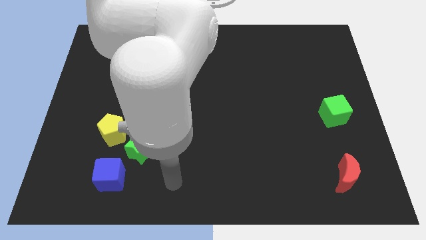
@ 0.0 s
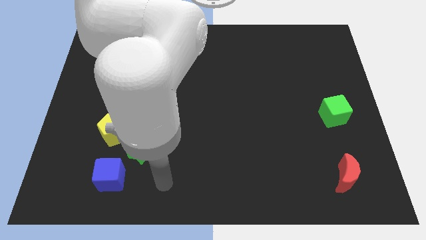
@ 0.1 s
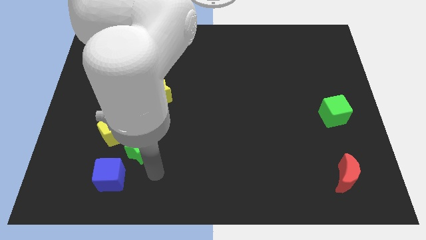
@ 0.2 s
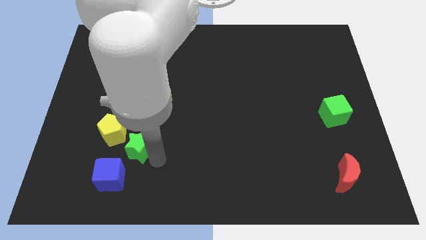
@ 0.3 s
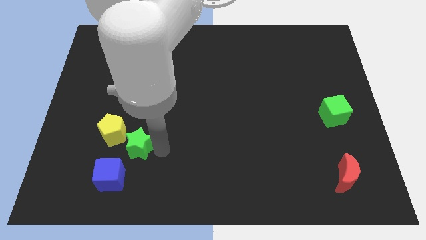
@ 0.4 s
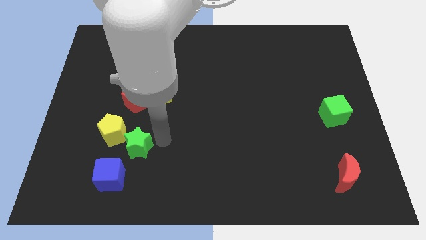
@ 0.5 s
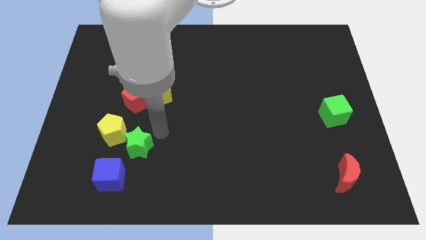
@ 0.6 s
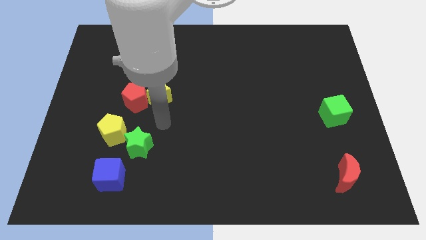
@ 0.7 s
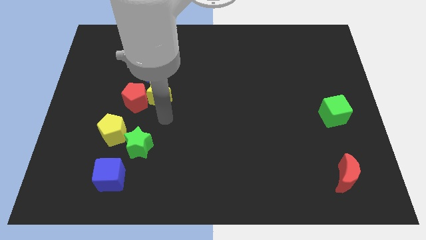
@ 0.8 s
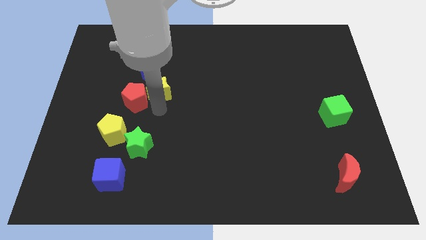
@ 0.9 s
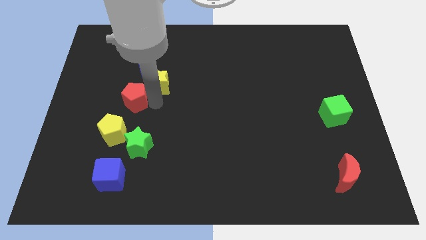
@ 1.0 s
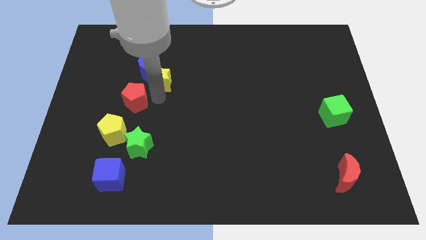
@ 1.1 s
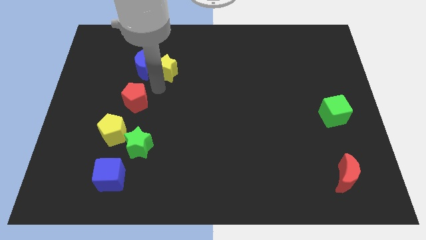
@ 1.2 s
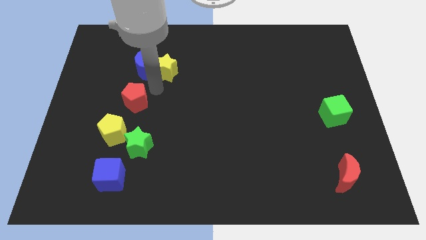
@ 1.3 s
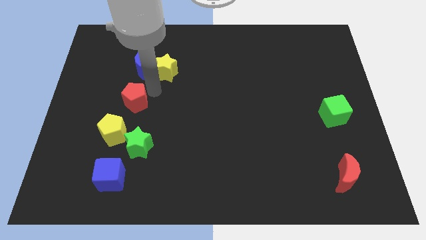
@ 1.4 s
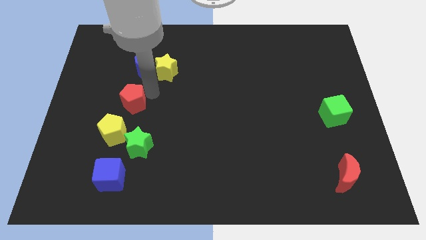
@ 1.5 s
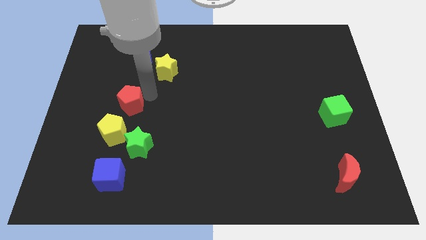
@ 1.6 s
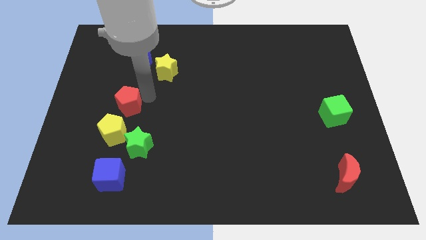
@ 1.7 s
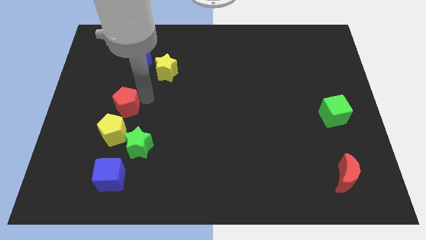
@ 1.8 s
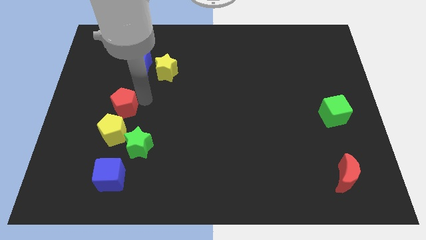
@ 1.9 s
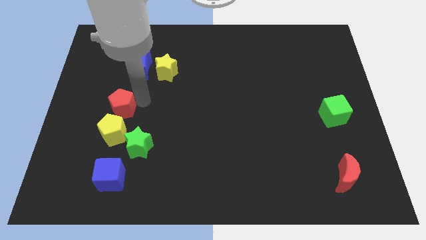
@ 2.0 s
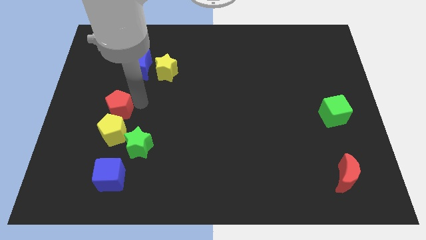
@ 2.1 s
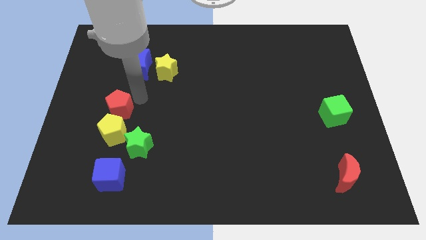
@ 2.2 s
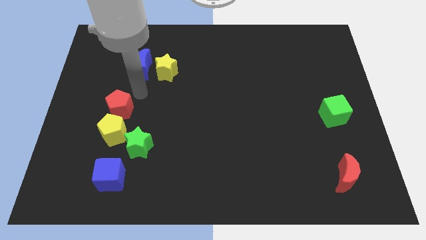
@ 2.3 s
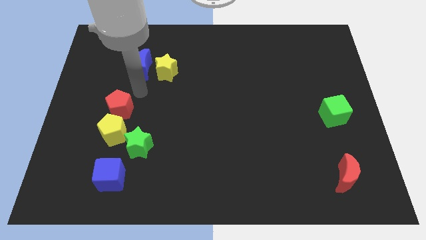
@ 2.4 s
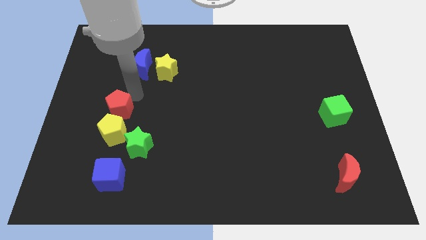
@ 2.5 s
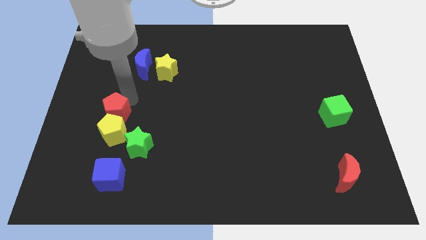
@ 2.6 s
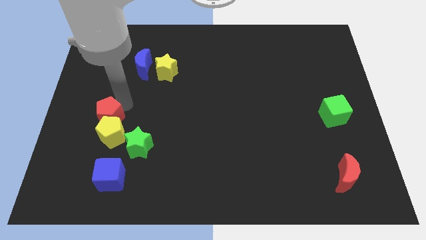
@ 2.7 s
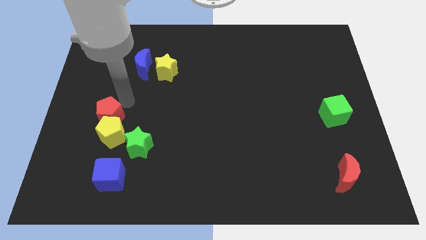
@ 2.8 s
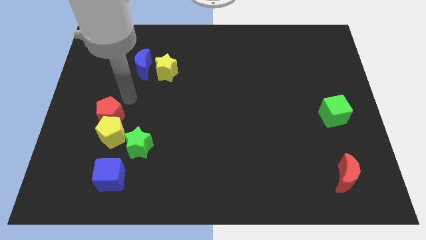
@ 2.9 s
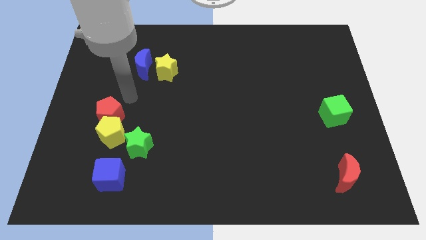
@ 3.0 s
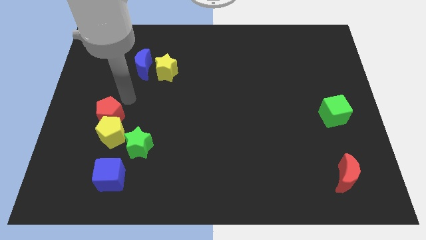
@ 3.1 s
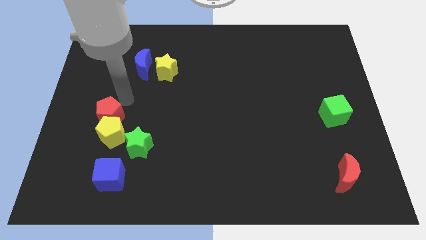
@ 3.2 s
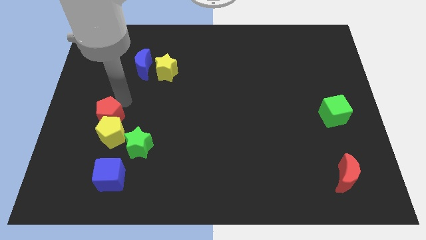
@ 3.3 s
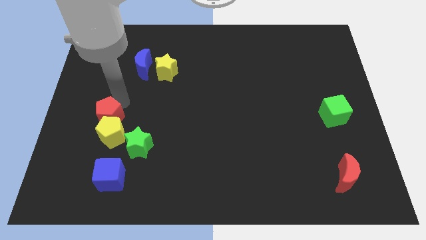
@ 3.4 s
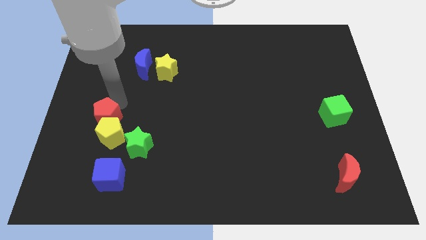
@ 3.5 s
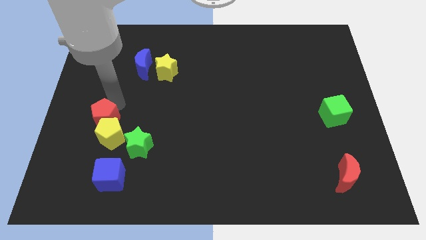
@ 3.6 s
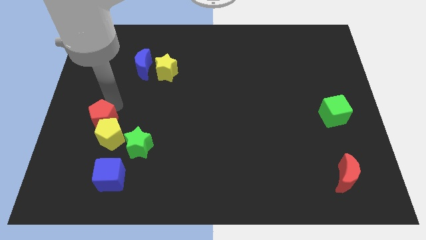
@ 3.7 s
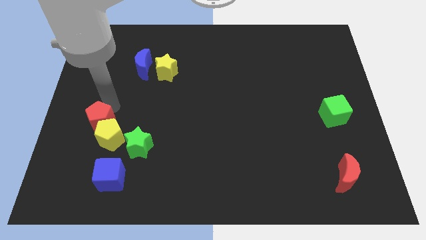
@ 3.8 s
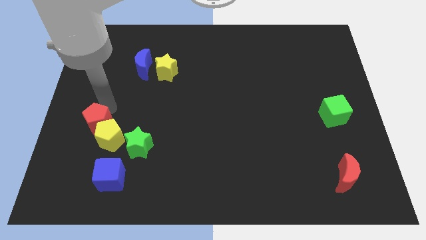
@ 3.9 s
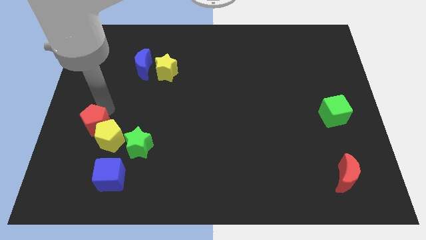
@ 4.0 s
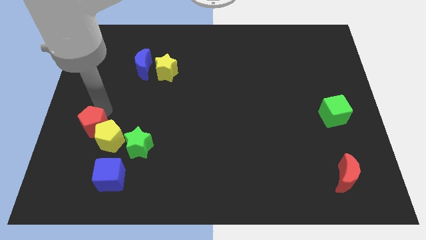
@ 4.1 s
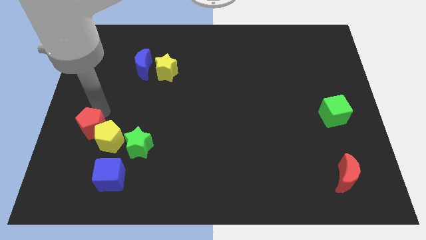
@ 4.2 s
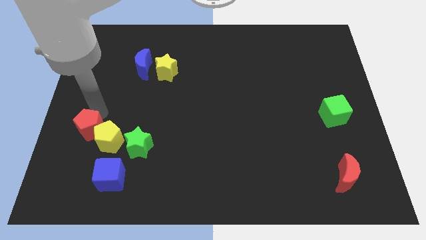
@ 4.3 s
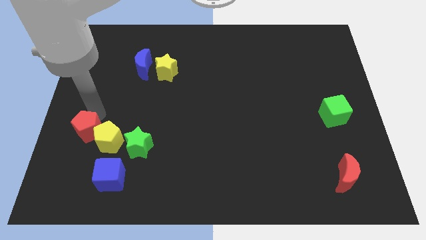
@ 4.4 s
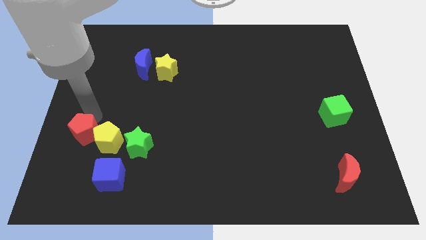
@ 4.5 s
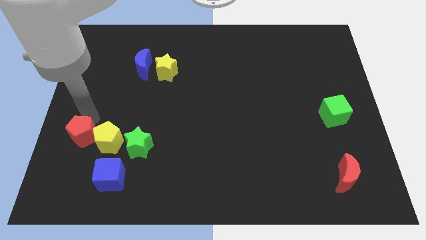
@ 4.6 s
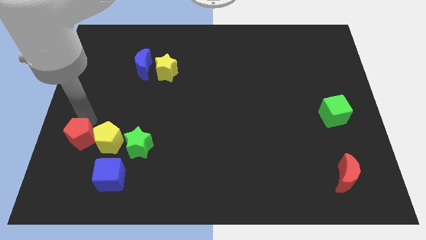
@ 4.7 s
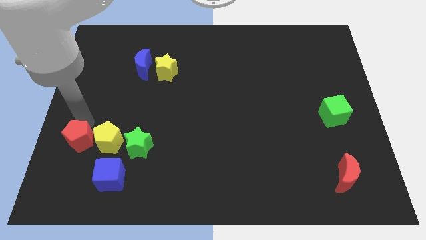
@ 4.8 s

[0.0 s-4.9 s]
push the red pentagon to the bottom left side of the yellow pentagon

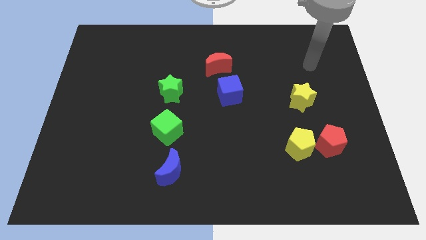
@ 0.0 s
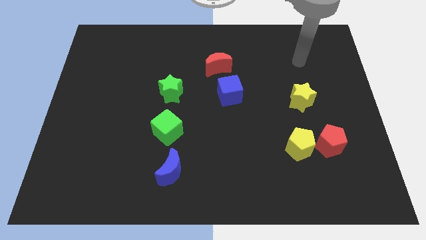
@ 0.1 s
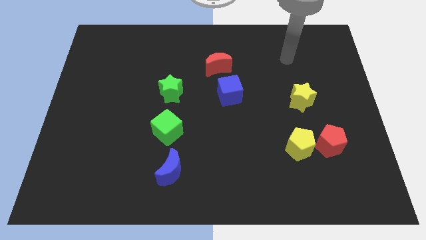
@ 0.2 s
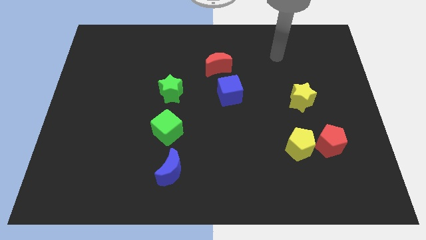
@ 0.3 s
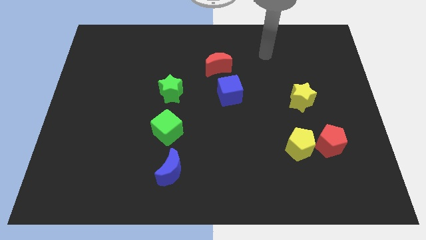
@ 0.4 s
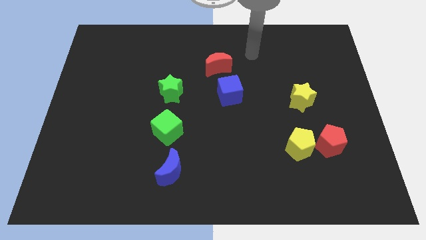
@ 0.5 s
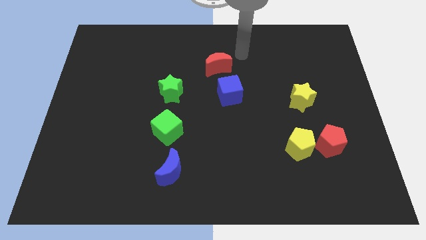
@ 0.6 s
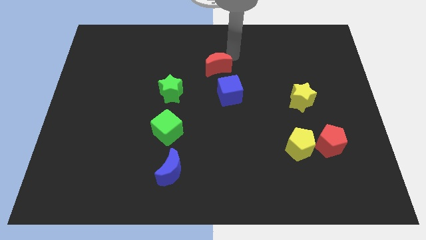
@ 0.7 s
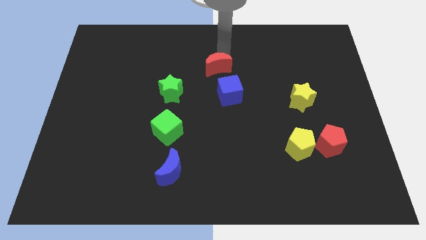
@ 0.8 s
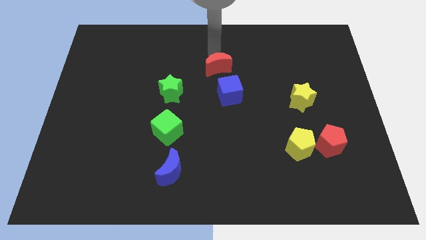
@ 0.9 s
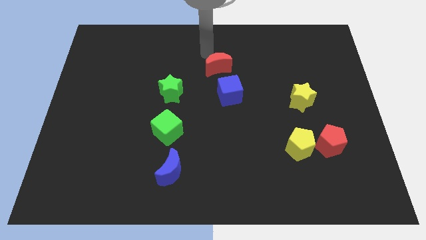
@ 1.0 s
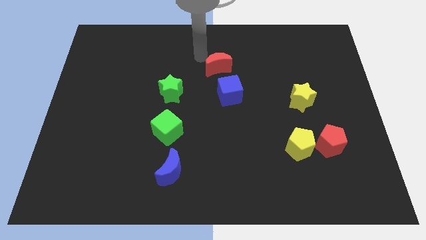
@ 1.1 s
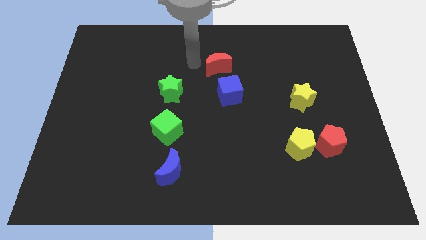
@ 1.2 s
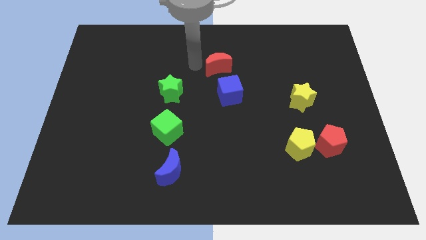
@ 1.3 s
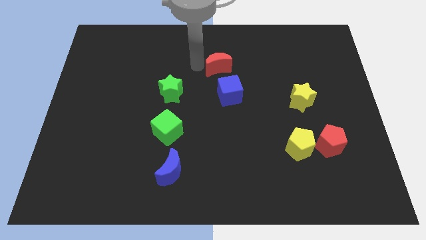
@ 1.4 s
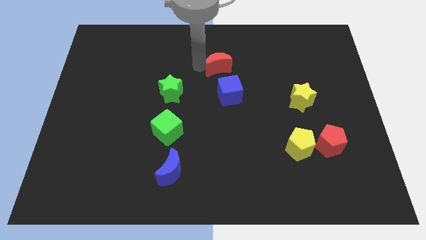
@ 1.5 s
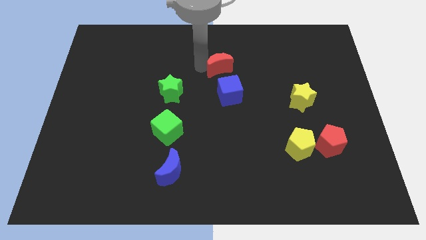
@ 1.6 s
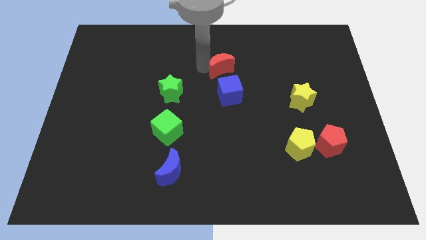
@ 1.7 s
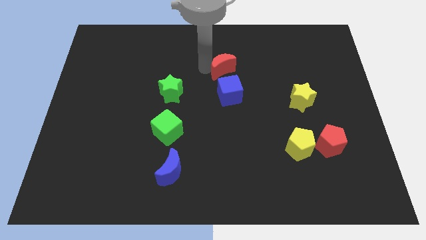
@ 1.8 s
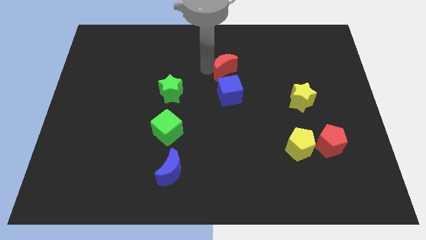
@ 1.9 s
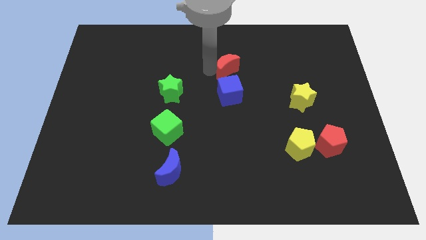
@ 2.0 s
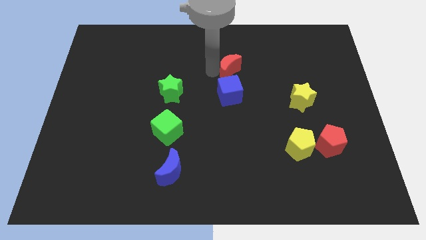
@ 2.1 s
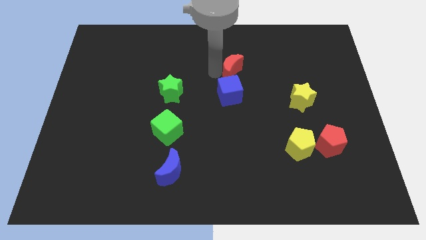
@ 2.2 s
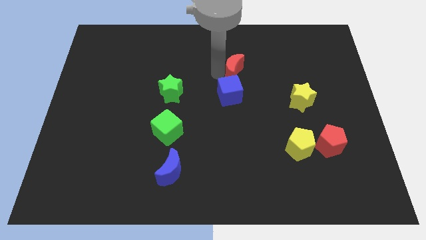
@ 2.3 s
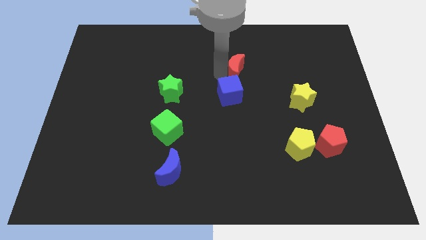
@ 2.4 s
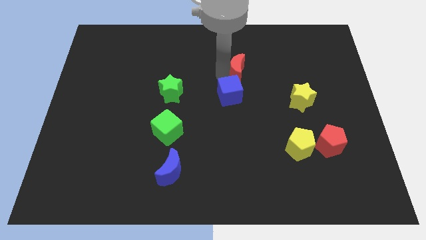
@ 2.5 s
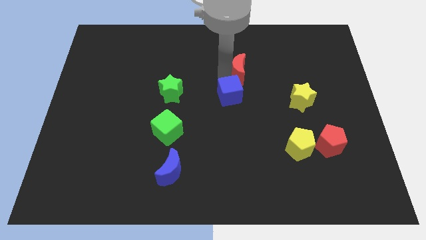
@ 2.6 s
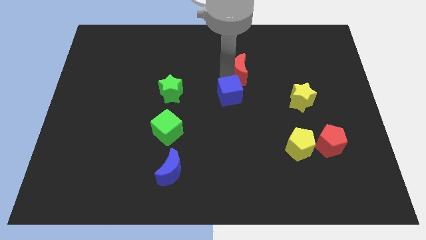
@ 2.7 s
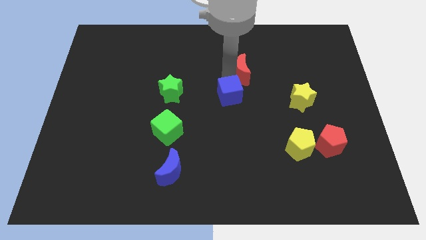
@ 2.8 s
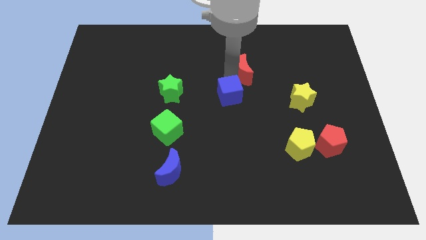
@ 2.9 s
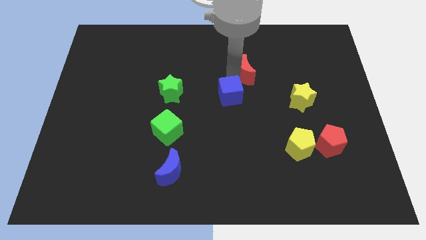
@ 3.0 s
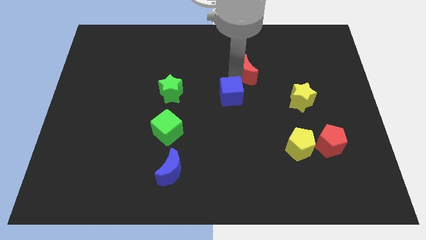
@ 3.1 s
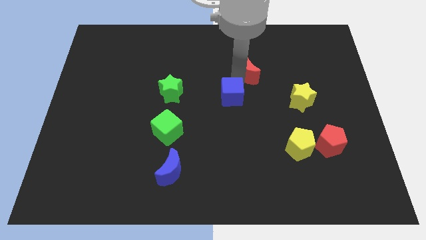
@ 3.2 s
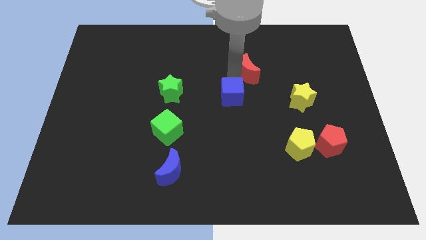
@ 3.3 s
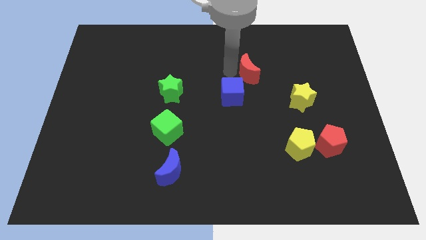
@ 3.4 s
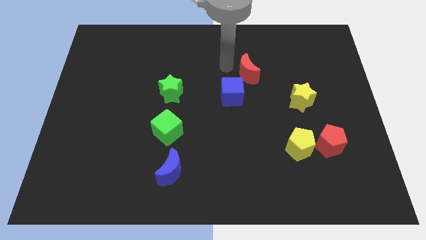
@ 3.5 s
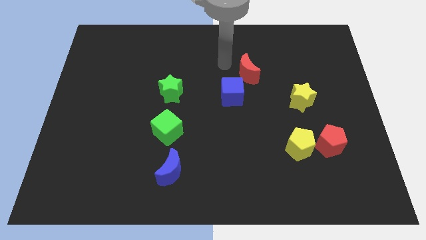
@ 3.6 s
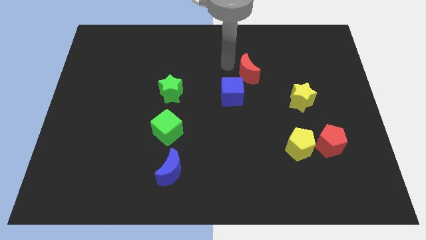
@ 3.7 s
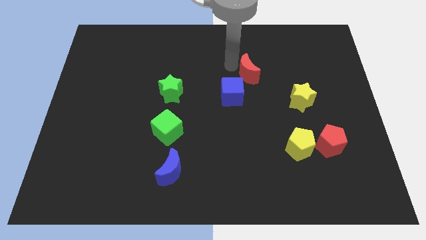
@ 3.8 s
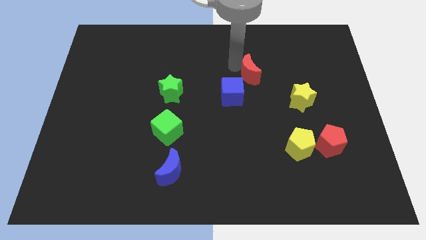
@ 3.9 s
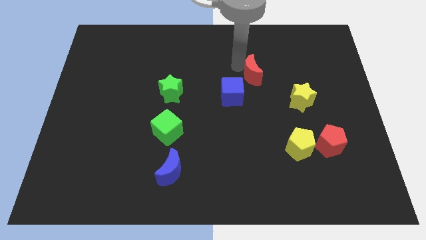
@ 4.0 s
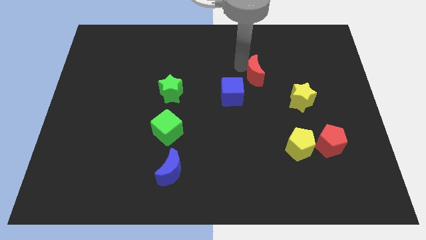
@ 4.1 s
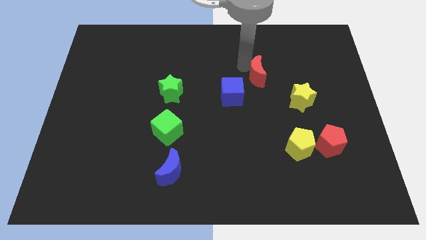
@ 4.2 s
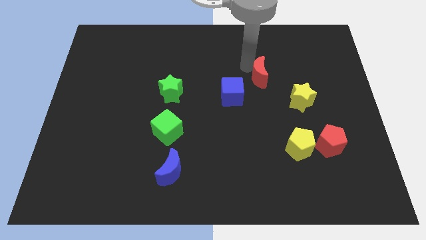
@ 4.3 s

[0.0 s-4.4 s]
push the red moon to the top left side of the yellow star
